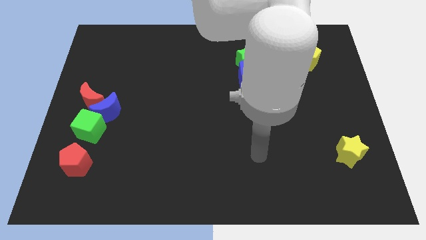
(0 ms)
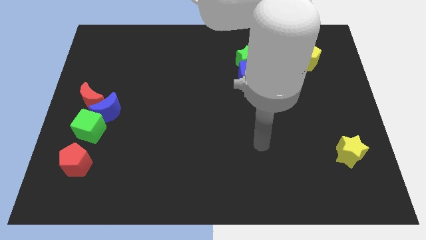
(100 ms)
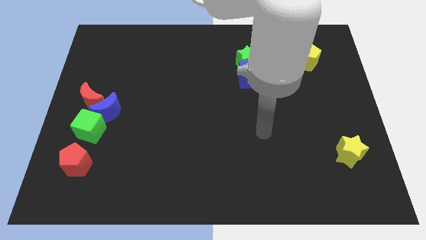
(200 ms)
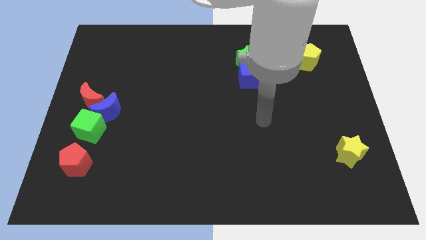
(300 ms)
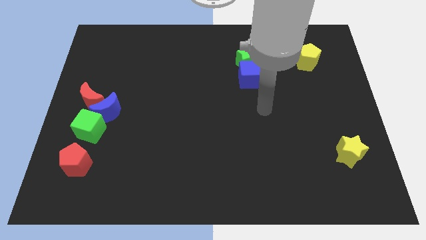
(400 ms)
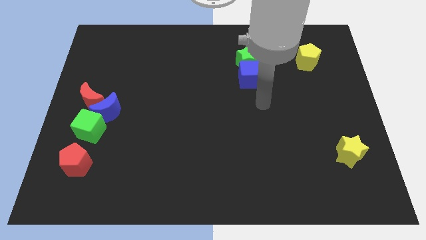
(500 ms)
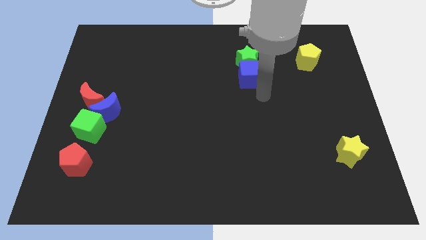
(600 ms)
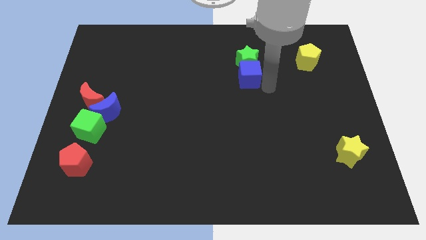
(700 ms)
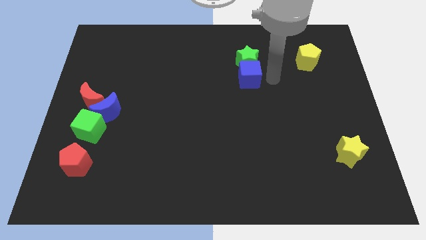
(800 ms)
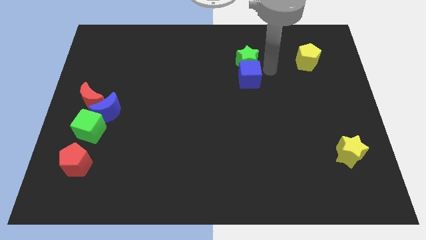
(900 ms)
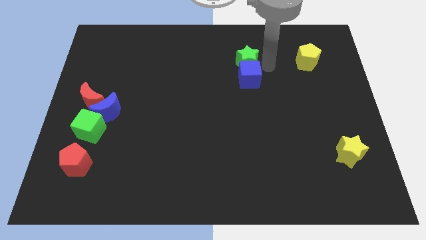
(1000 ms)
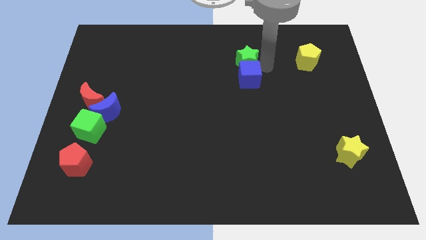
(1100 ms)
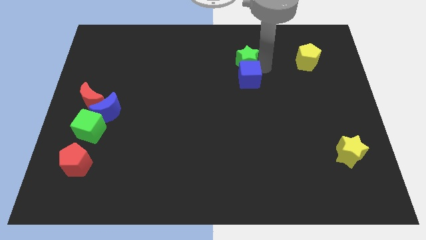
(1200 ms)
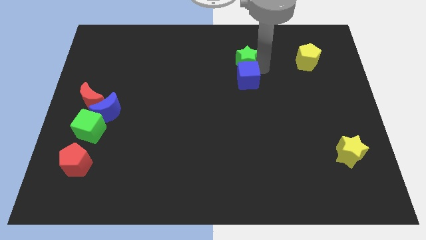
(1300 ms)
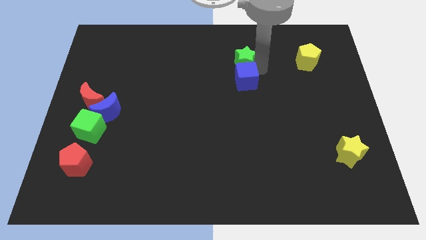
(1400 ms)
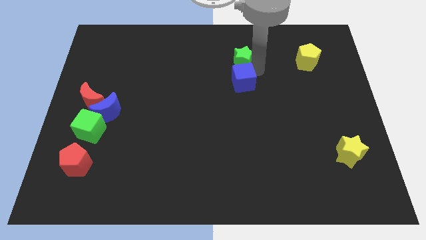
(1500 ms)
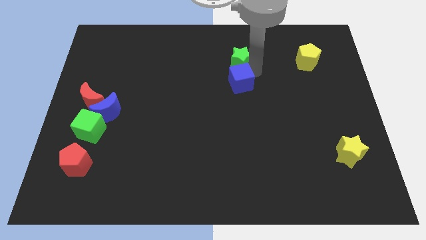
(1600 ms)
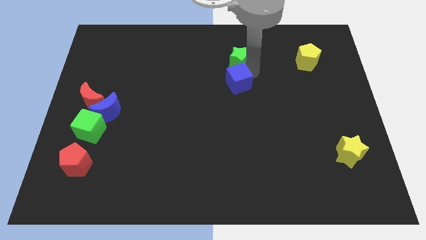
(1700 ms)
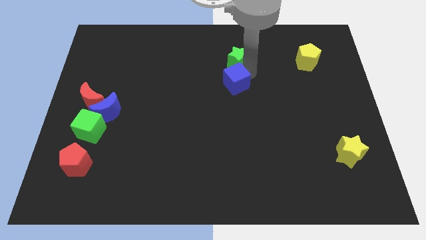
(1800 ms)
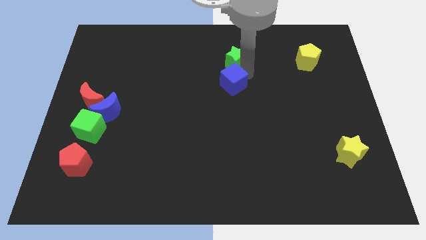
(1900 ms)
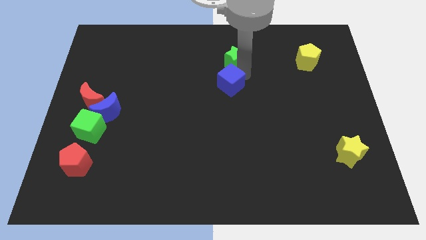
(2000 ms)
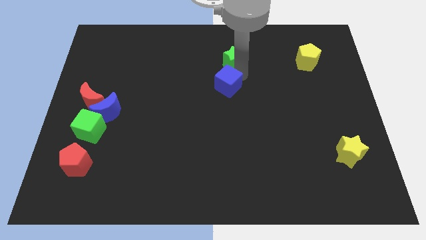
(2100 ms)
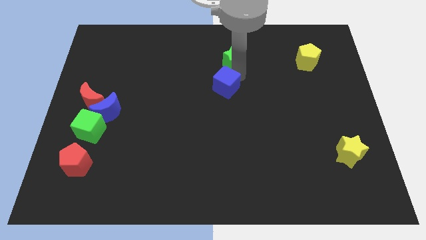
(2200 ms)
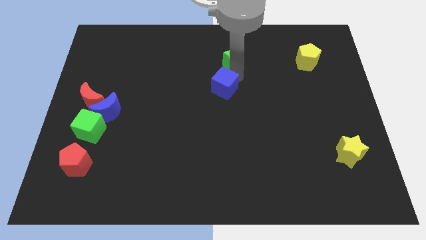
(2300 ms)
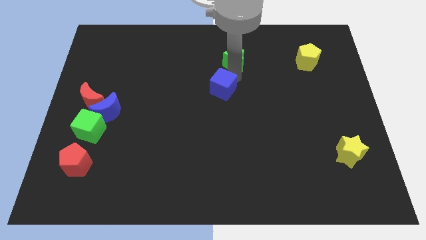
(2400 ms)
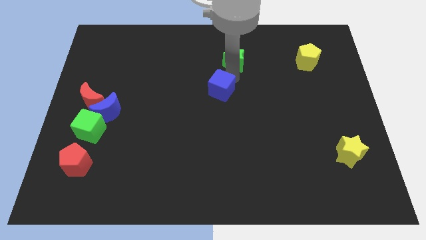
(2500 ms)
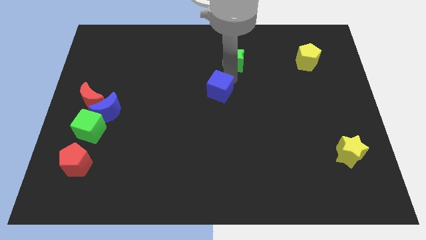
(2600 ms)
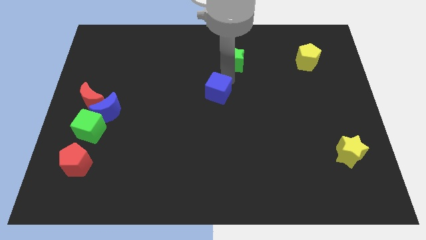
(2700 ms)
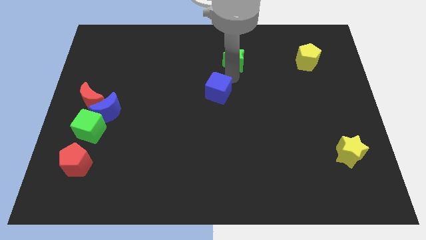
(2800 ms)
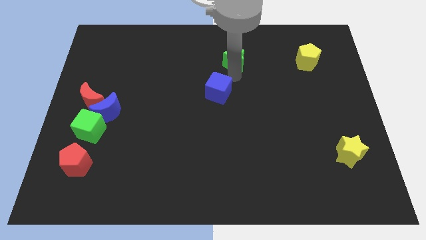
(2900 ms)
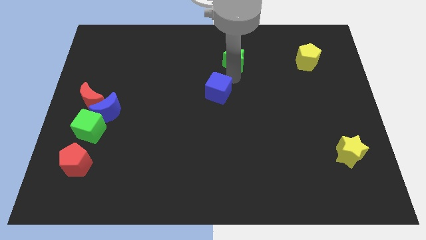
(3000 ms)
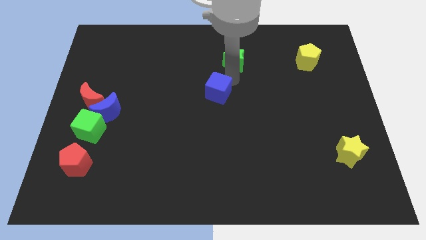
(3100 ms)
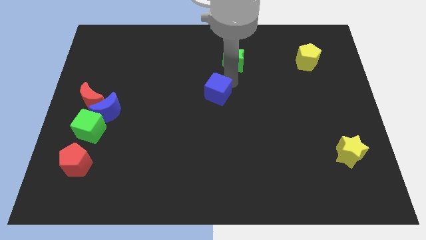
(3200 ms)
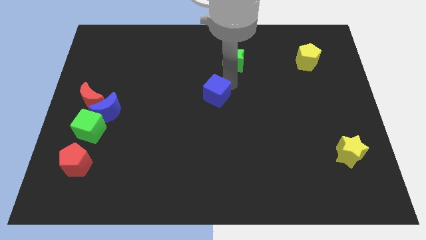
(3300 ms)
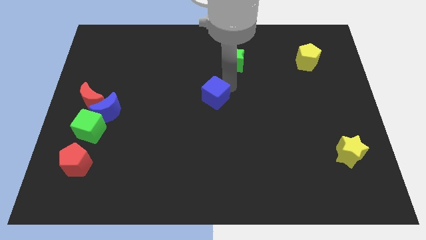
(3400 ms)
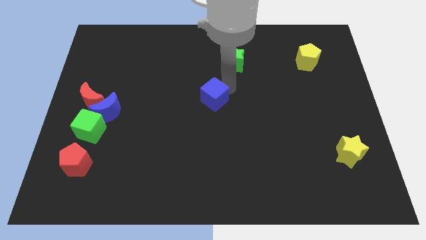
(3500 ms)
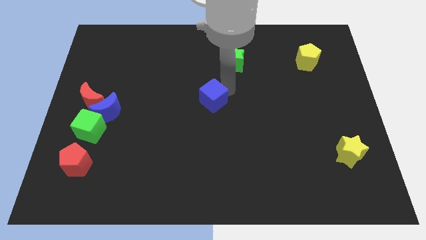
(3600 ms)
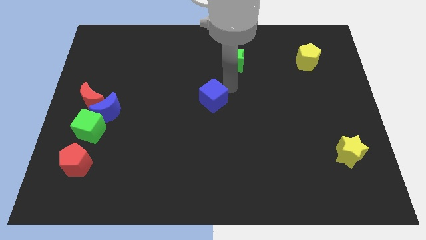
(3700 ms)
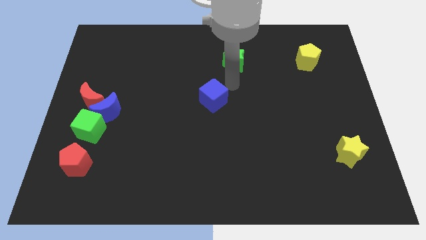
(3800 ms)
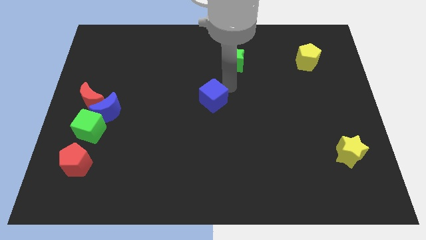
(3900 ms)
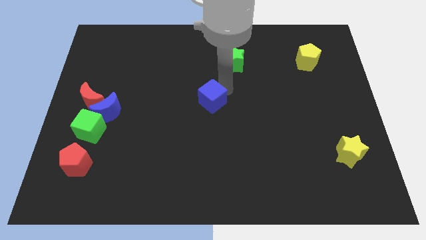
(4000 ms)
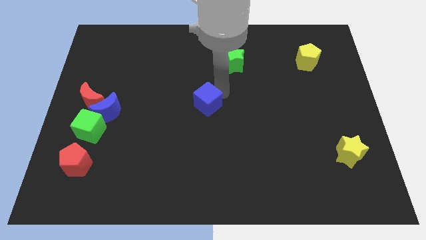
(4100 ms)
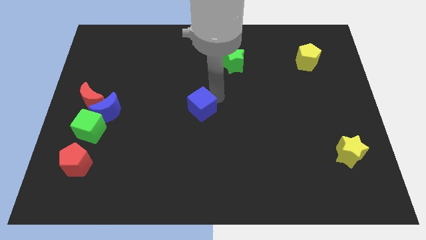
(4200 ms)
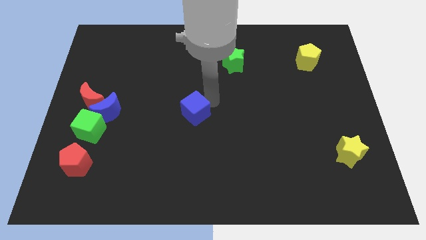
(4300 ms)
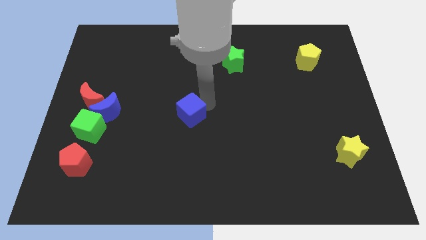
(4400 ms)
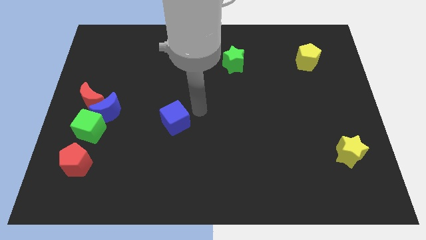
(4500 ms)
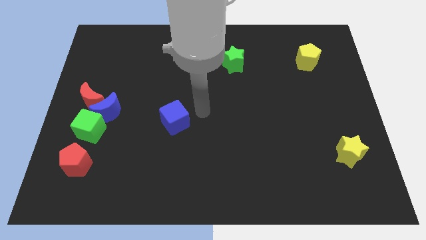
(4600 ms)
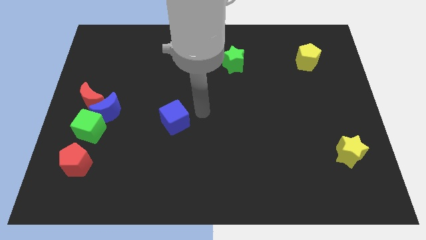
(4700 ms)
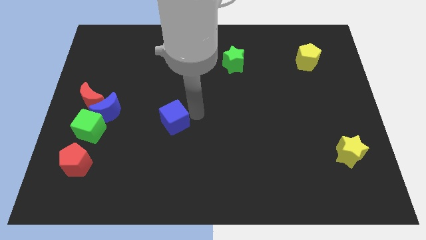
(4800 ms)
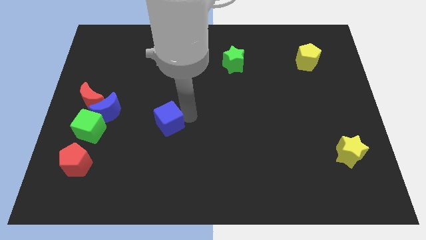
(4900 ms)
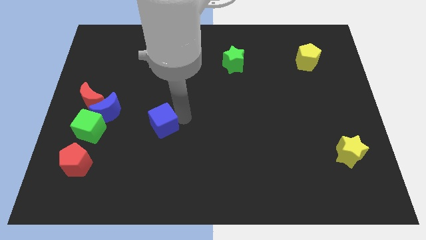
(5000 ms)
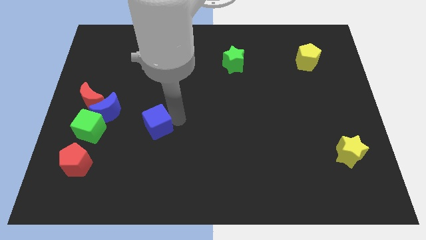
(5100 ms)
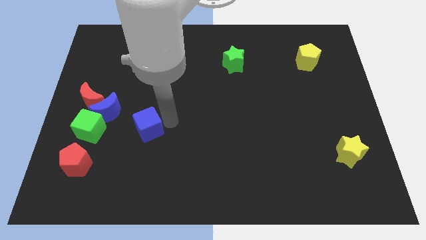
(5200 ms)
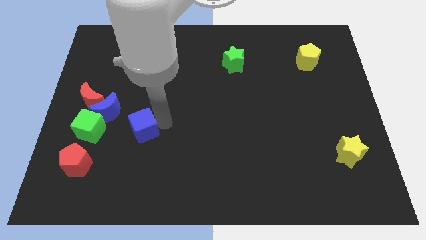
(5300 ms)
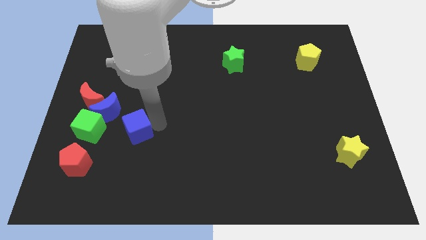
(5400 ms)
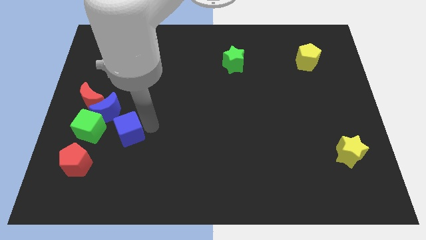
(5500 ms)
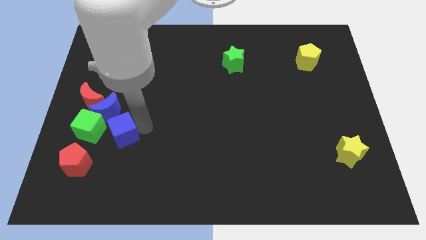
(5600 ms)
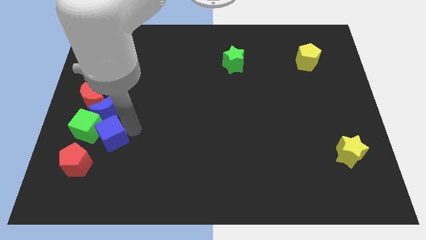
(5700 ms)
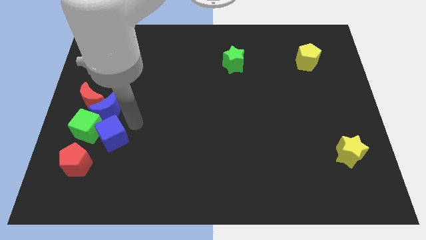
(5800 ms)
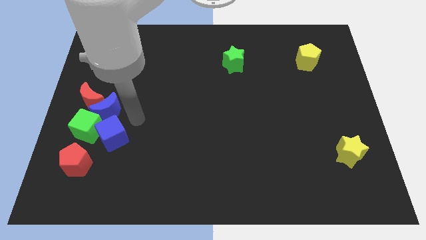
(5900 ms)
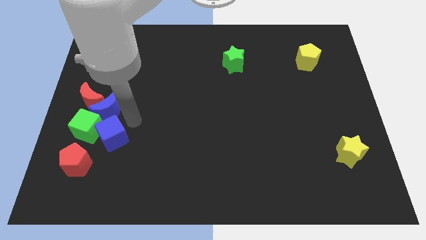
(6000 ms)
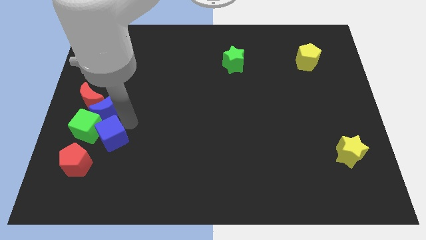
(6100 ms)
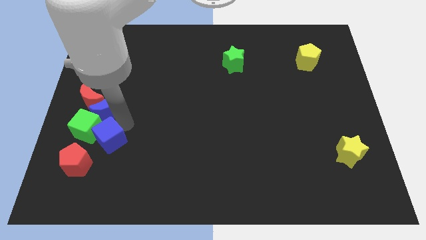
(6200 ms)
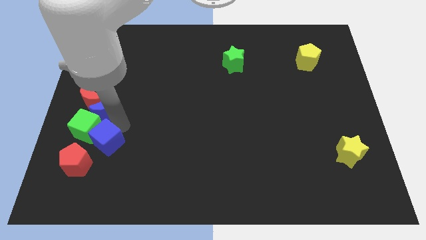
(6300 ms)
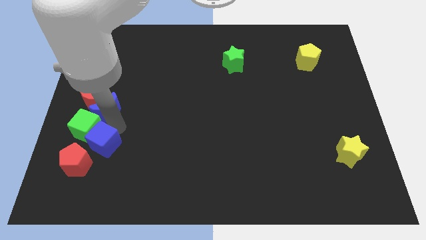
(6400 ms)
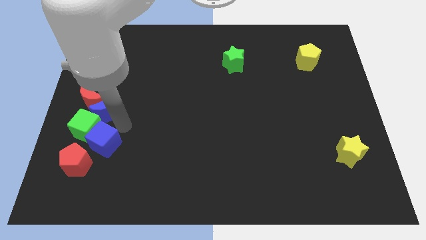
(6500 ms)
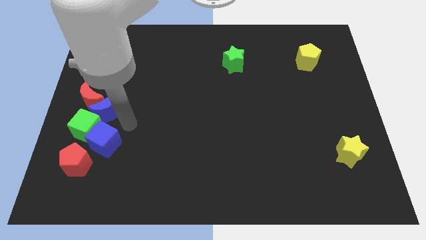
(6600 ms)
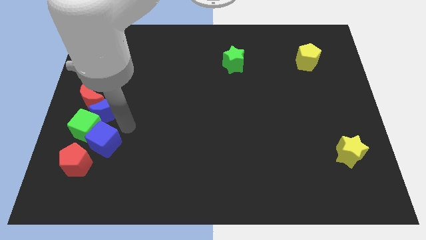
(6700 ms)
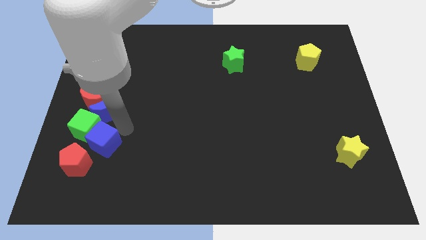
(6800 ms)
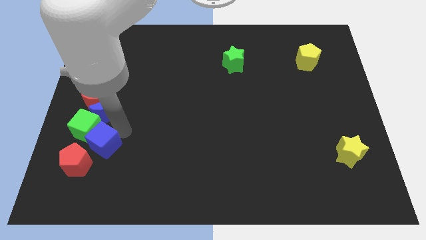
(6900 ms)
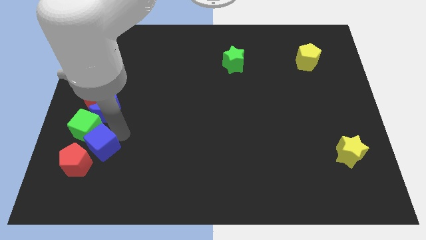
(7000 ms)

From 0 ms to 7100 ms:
slide the blue cube to the red pentagon
